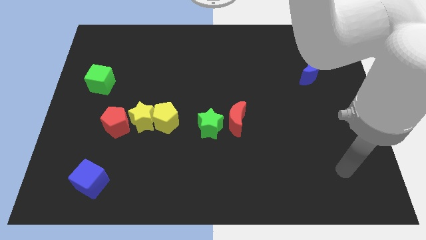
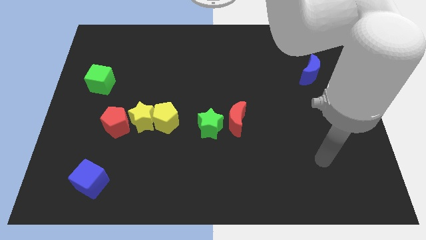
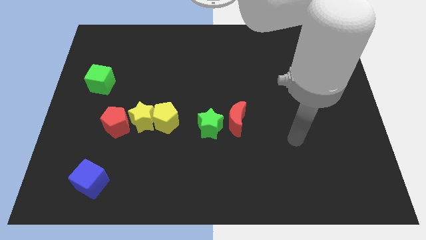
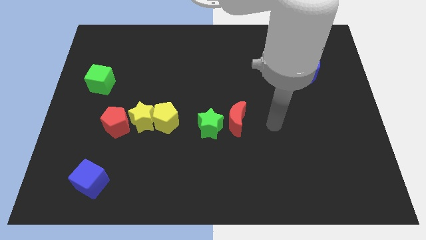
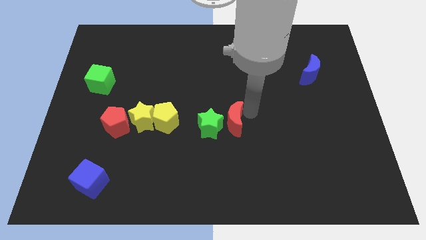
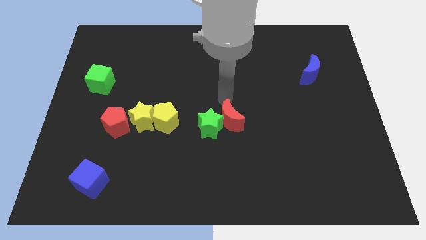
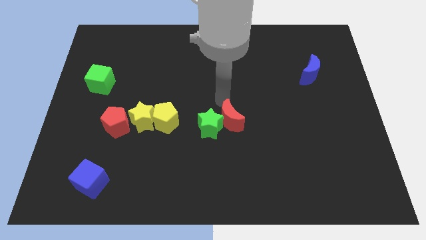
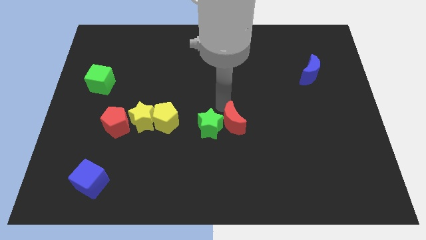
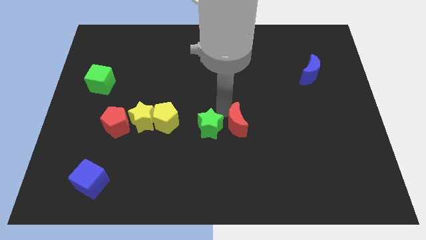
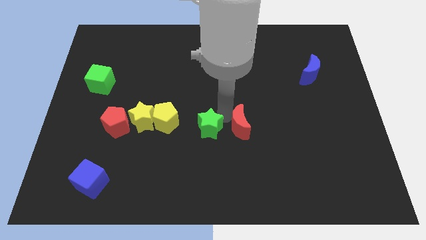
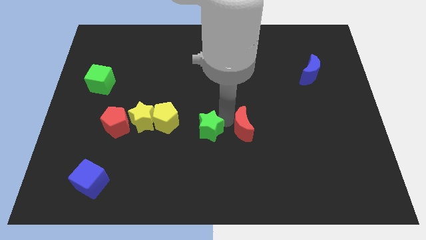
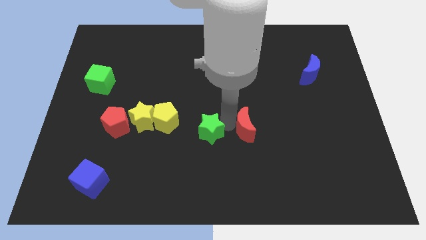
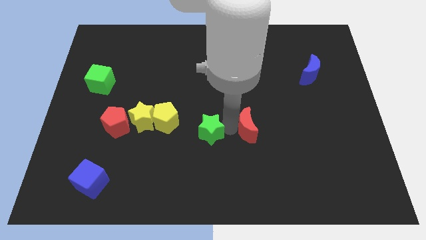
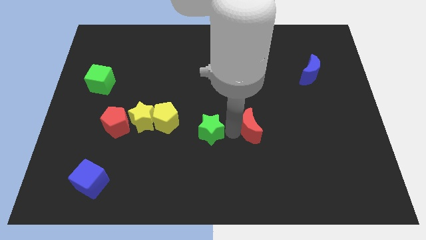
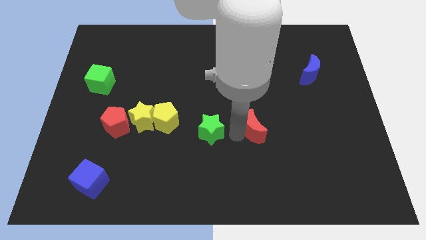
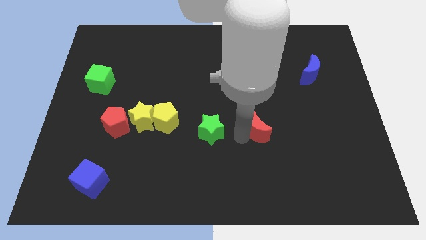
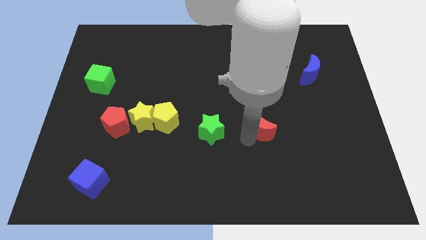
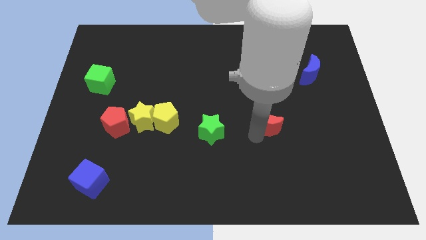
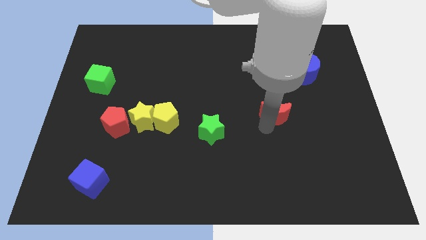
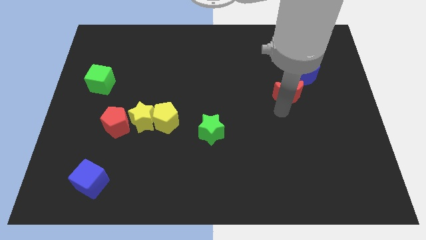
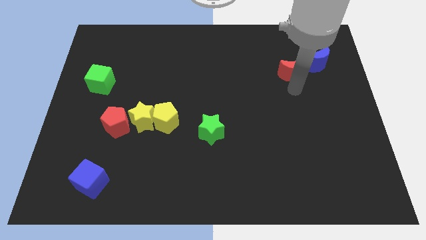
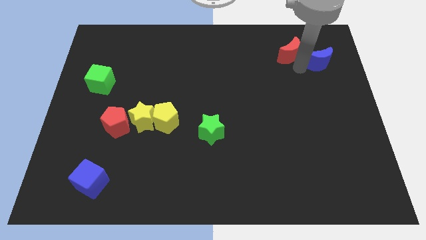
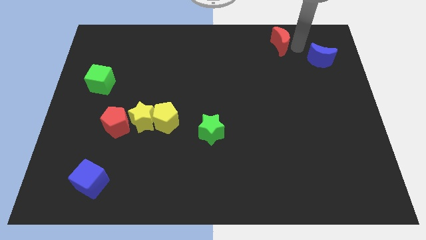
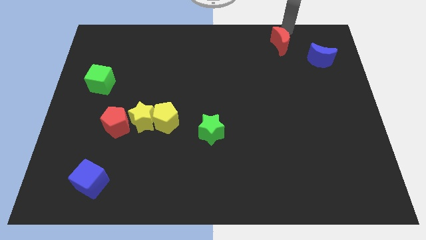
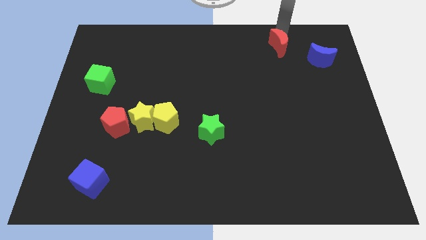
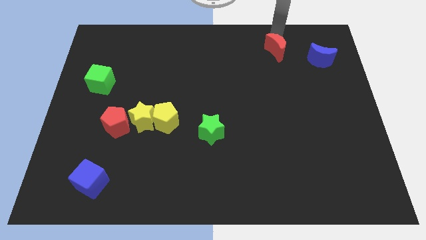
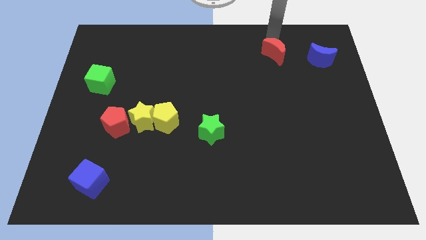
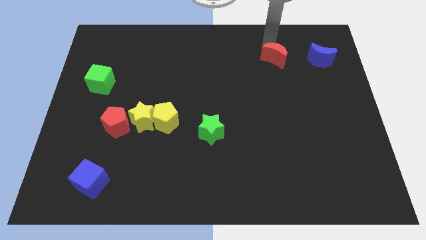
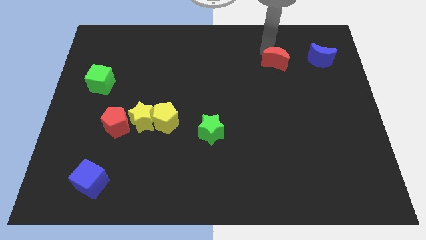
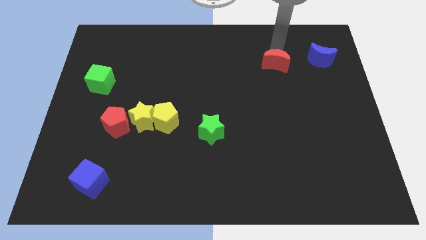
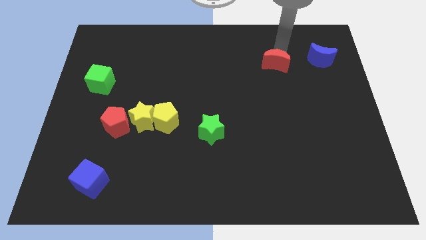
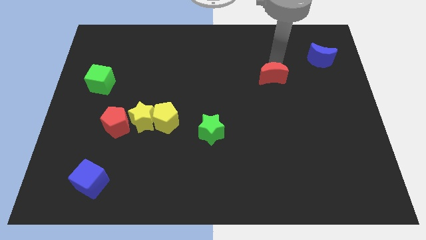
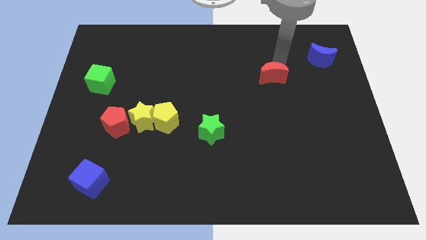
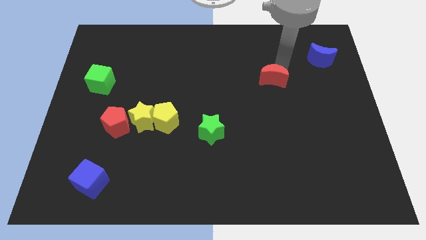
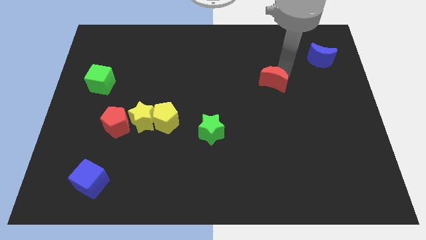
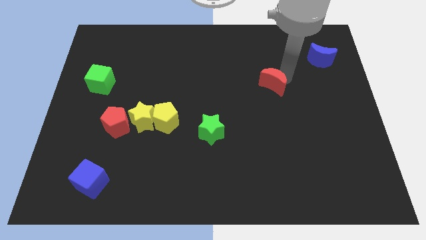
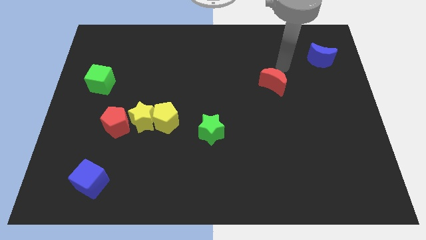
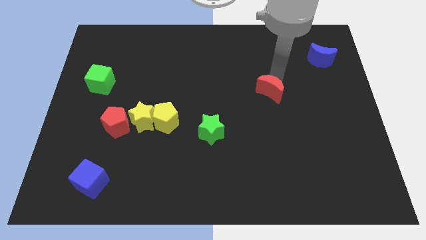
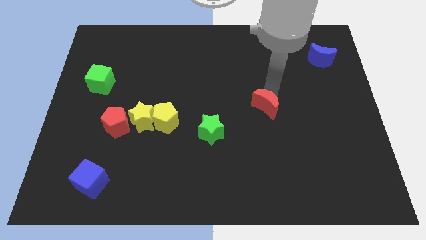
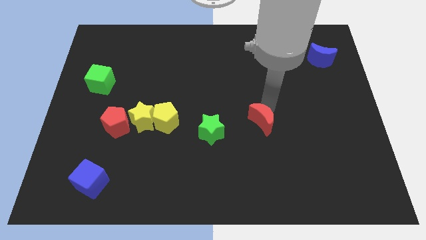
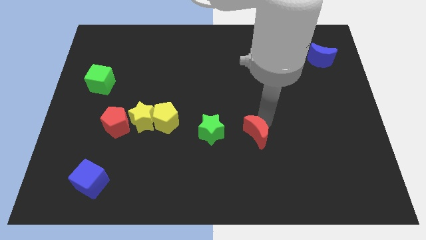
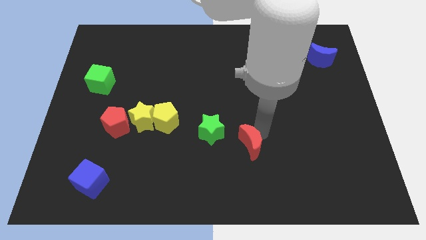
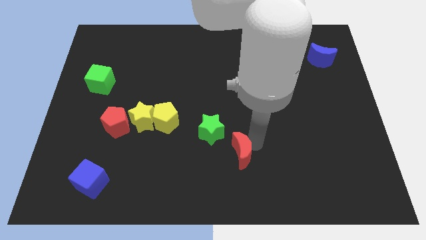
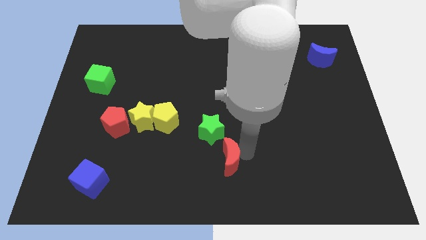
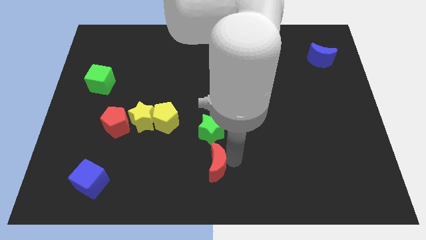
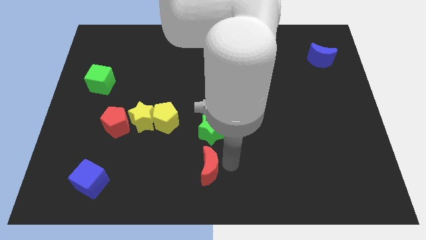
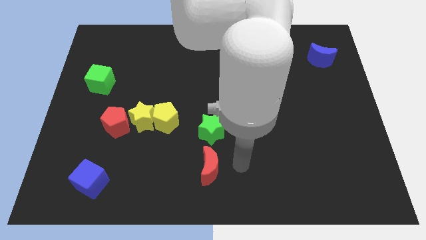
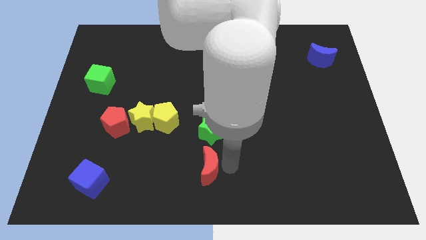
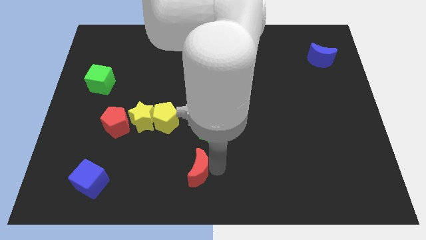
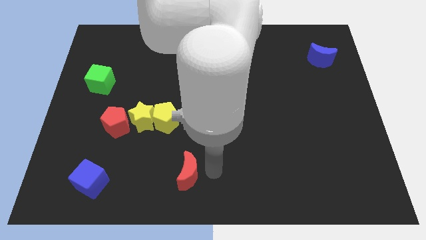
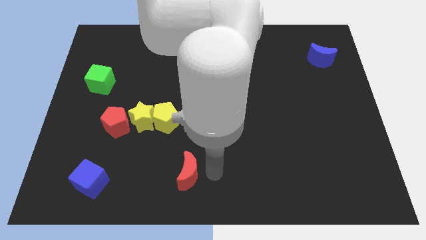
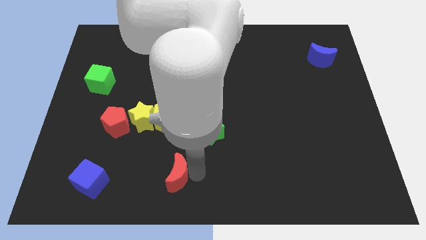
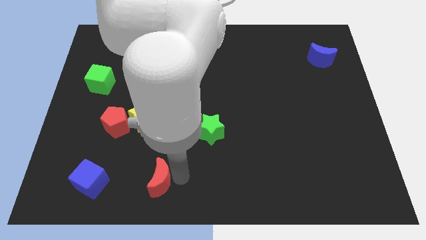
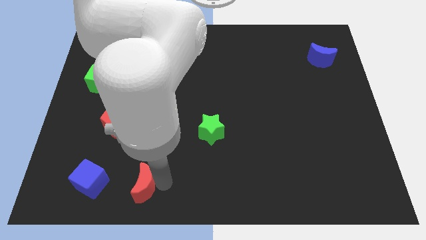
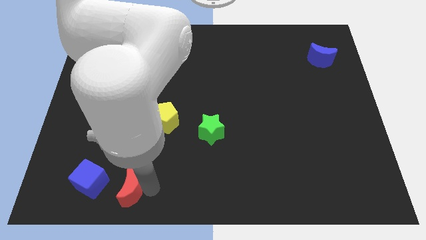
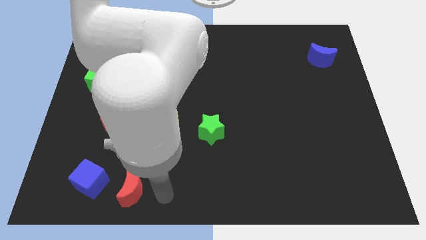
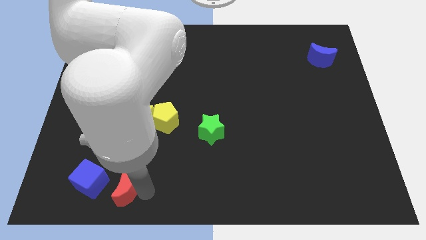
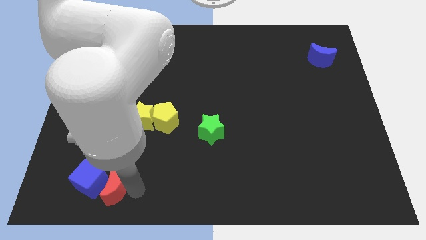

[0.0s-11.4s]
put the red moon towards the blue cube

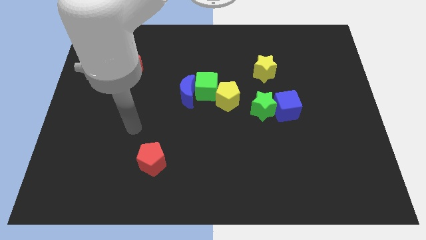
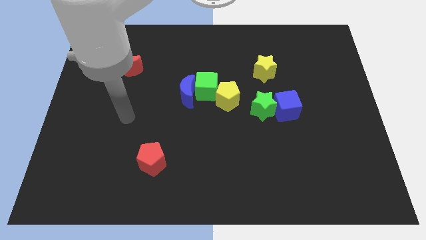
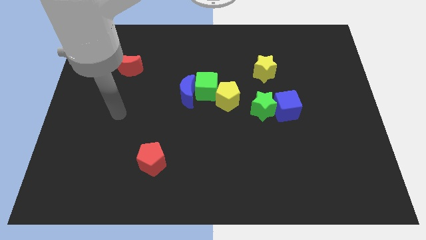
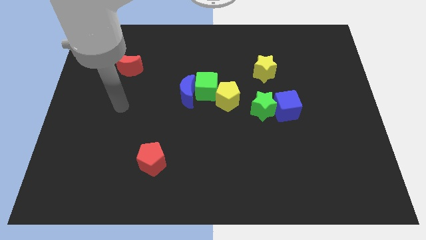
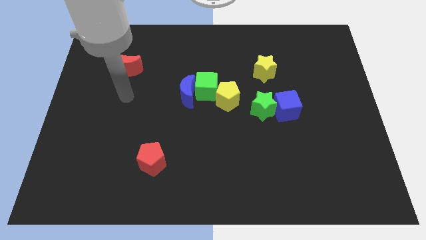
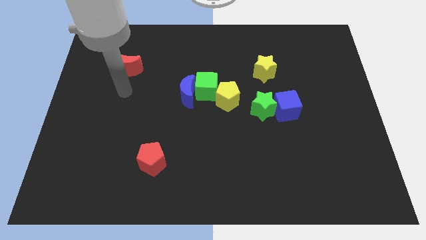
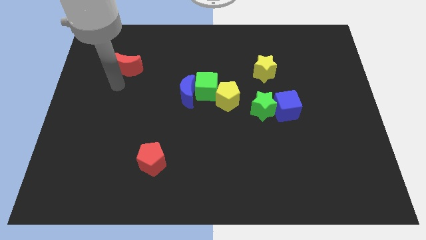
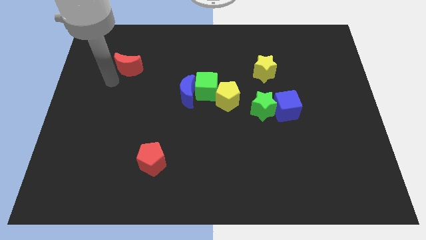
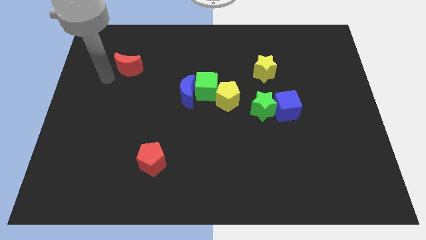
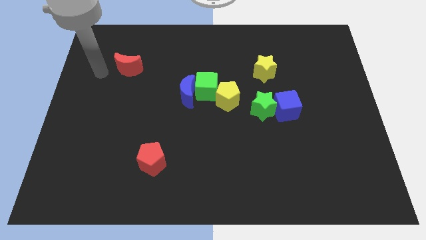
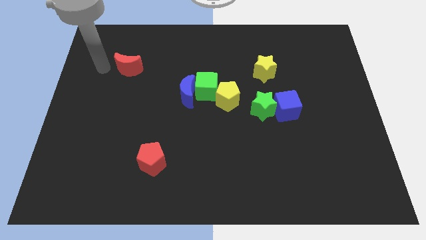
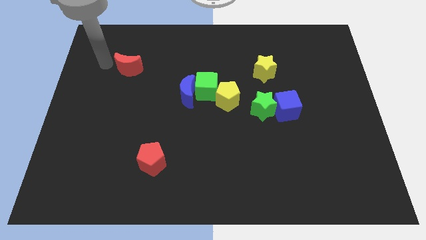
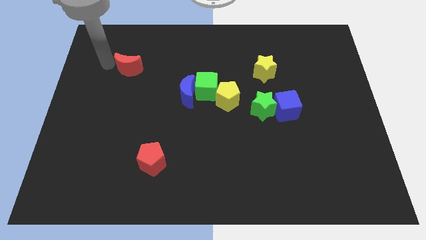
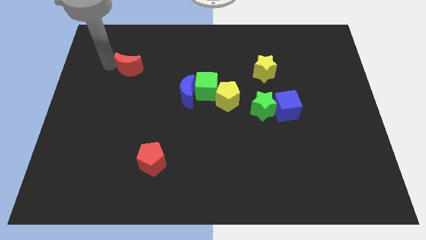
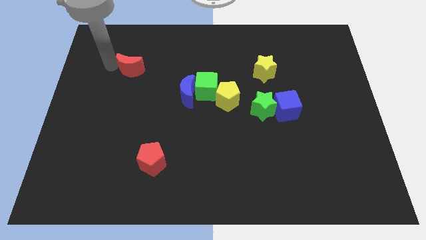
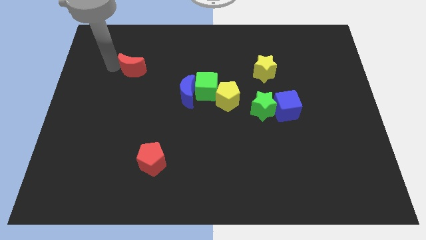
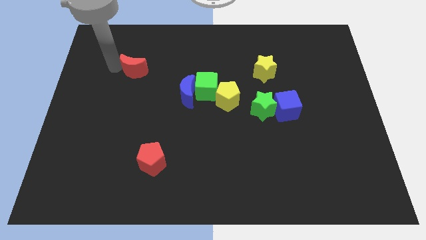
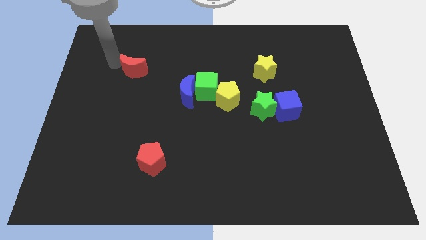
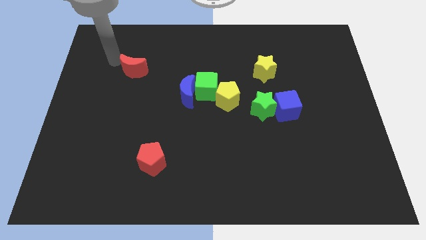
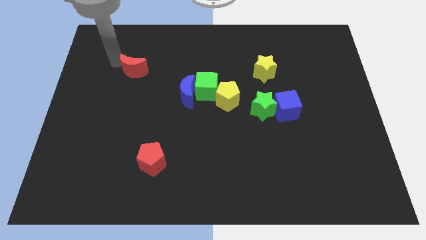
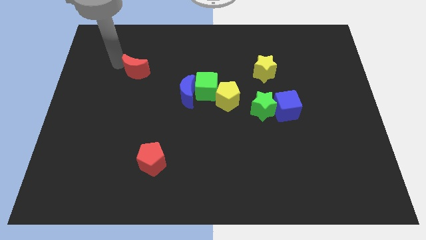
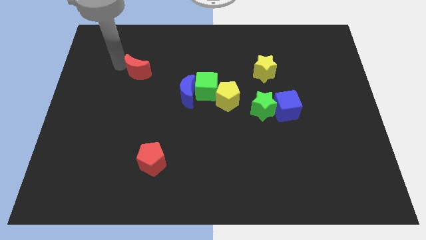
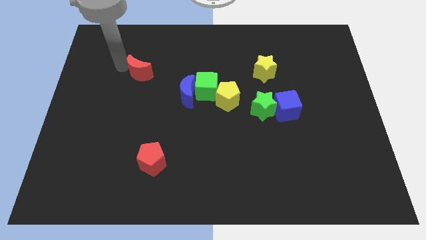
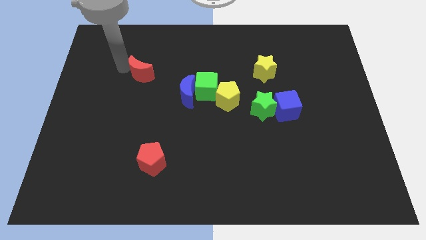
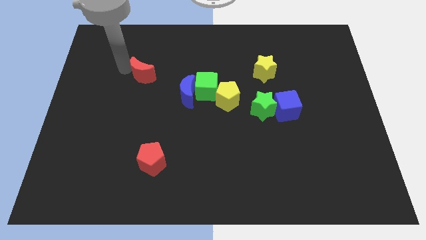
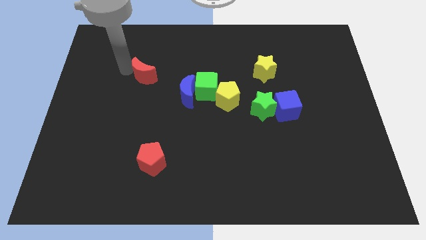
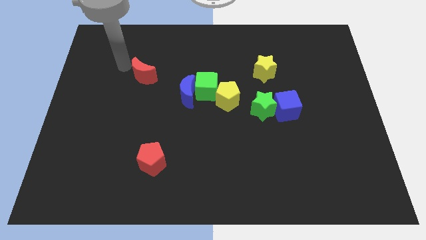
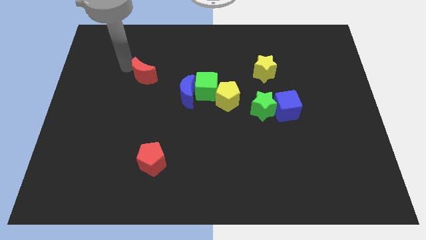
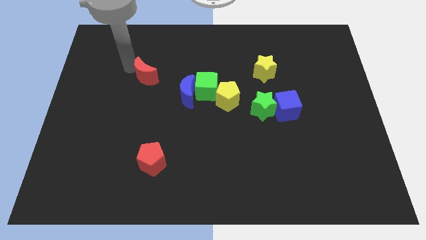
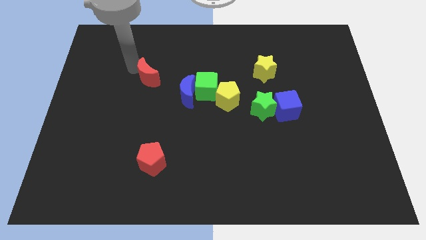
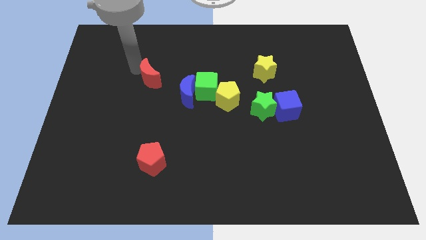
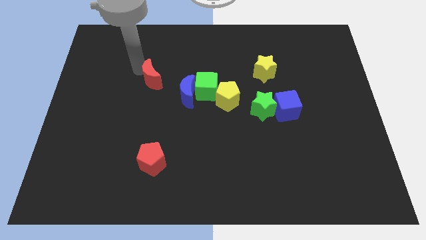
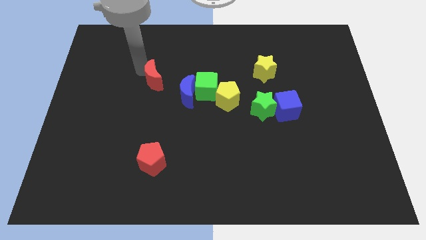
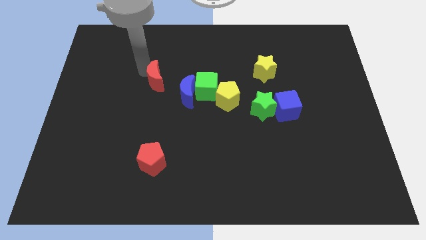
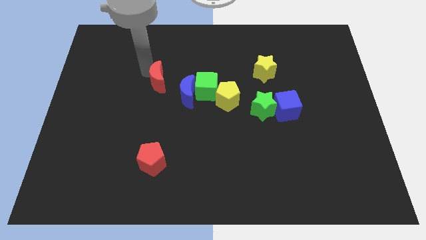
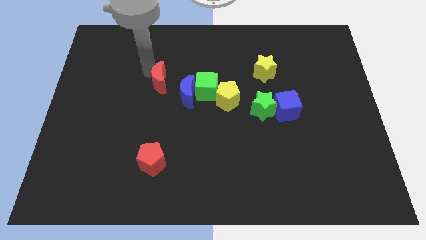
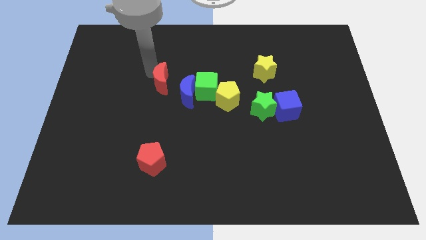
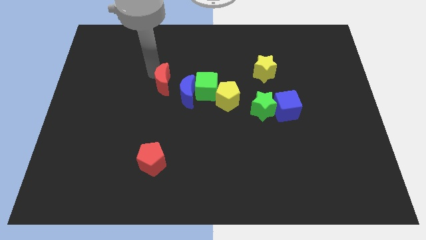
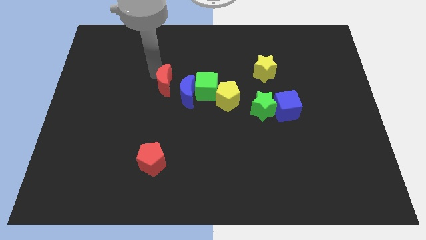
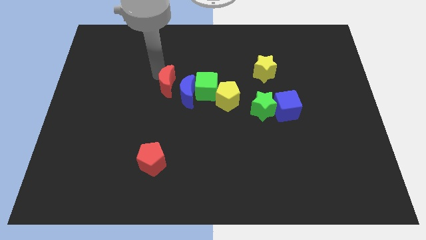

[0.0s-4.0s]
slide the red moon next to the blue moon
